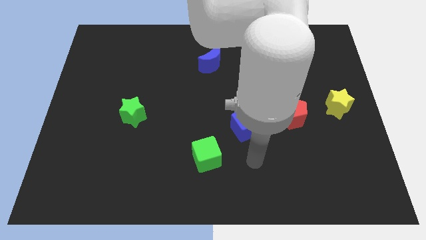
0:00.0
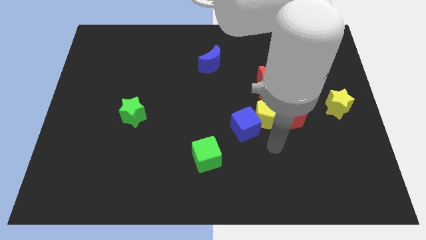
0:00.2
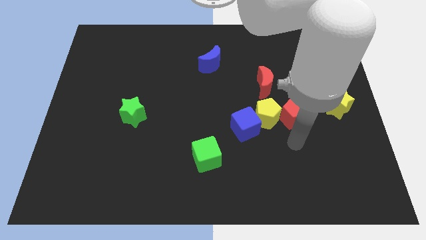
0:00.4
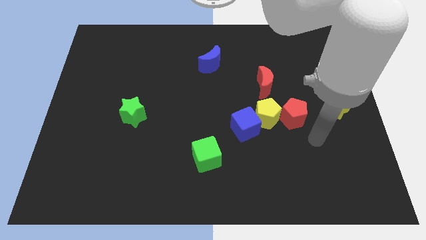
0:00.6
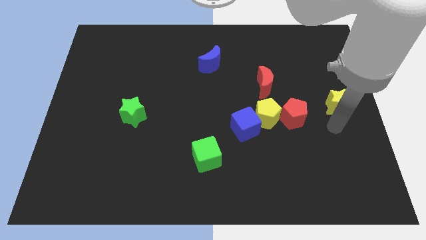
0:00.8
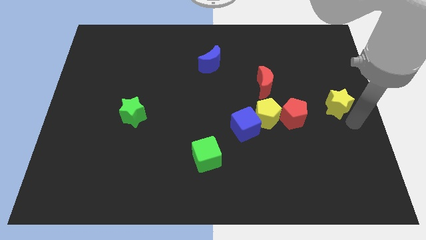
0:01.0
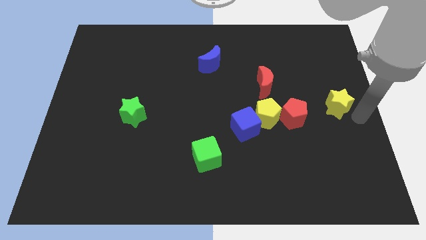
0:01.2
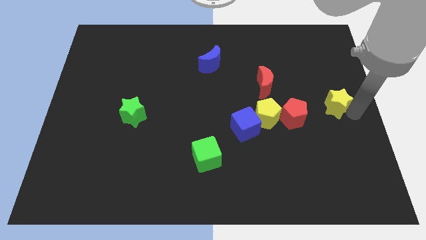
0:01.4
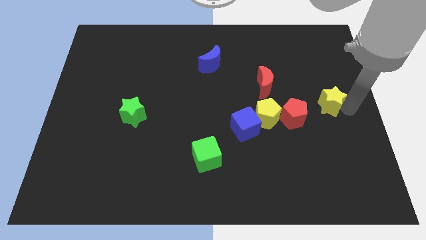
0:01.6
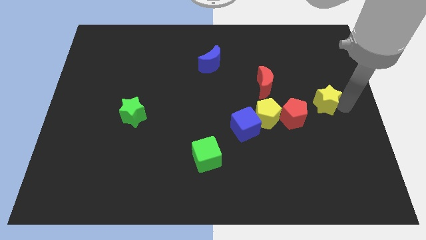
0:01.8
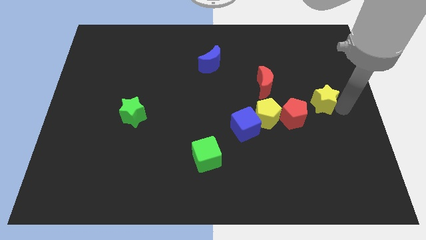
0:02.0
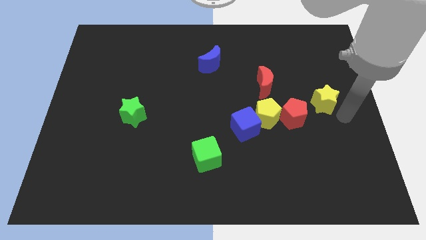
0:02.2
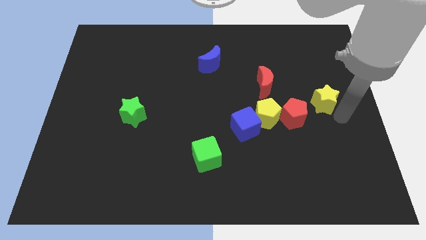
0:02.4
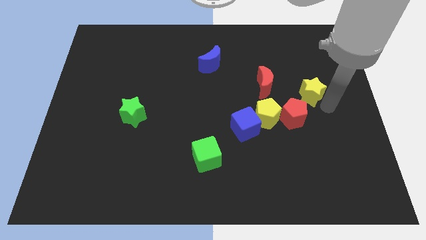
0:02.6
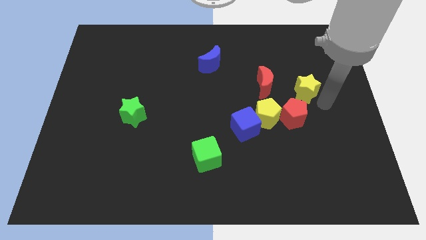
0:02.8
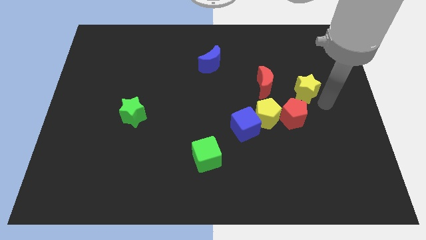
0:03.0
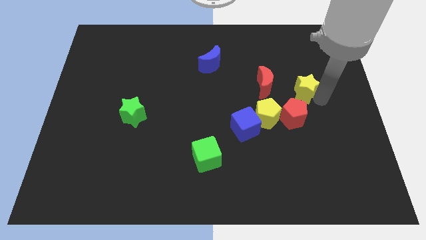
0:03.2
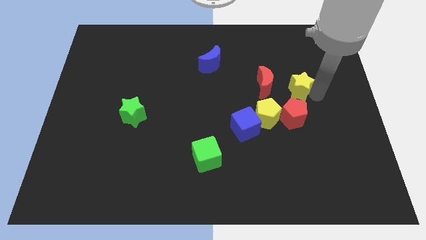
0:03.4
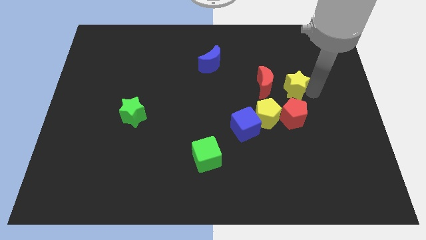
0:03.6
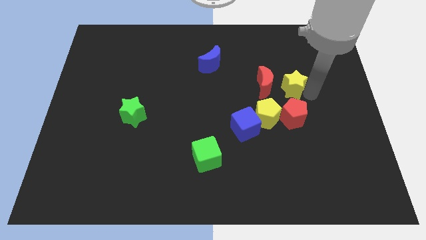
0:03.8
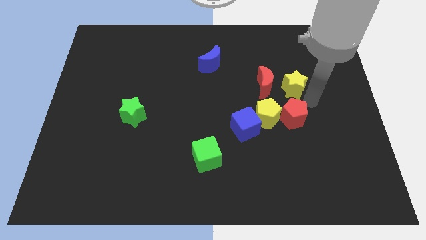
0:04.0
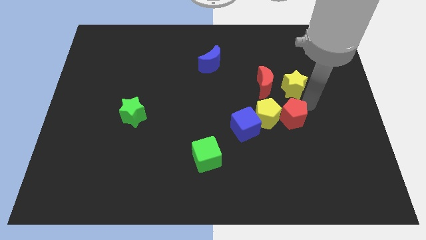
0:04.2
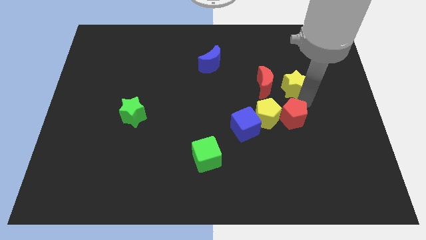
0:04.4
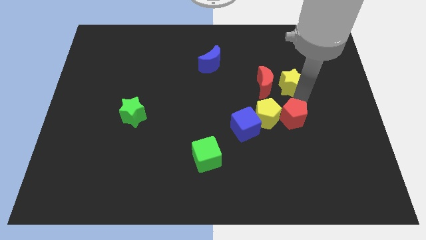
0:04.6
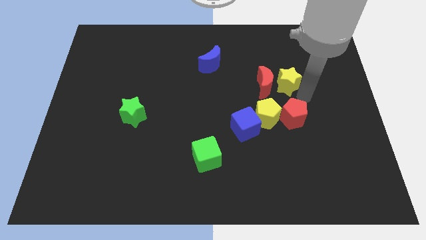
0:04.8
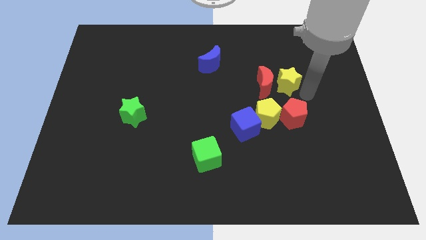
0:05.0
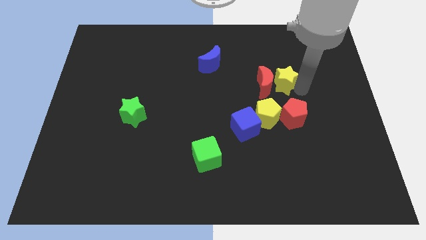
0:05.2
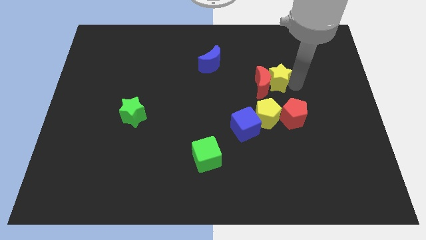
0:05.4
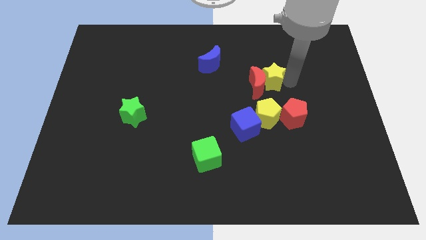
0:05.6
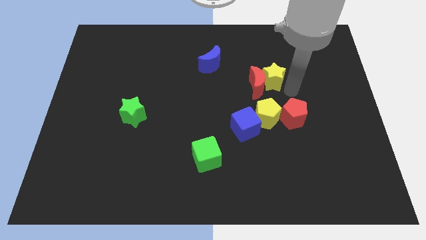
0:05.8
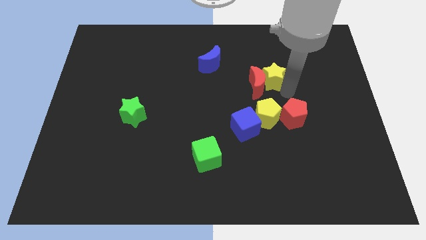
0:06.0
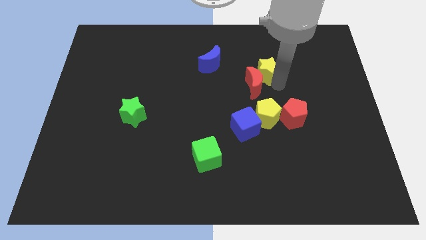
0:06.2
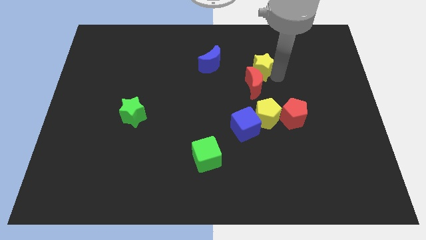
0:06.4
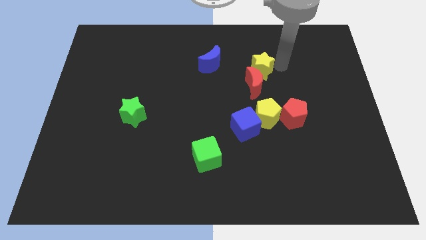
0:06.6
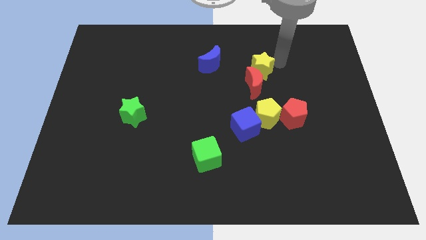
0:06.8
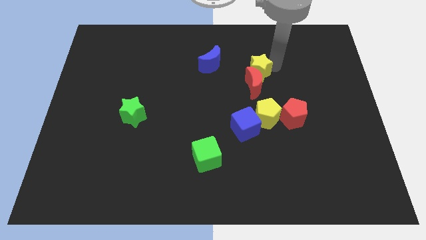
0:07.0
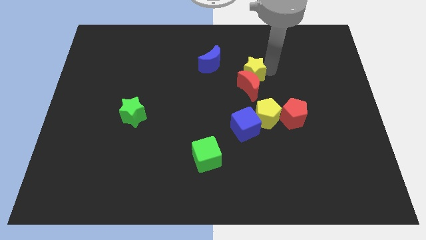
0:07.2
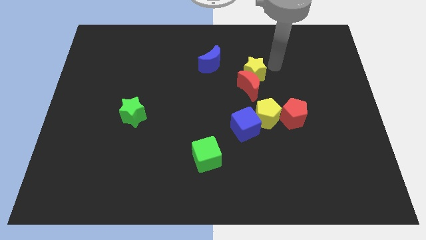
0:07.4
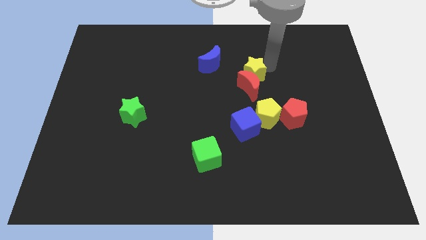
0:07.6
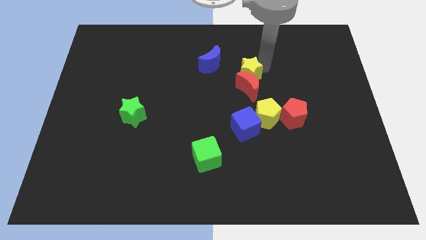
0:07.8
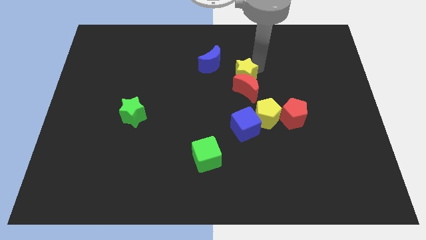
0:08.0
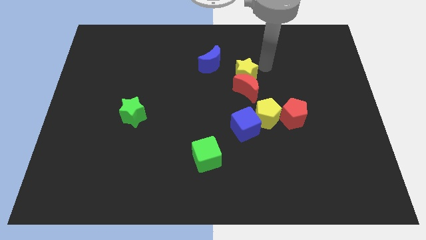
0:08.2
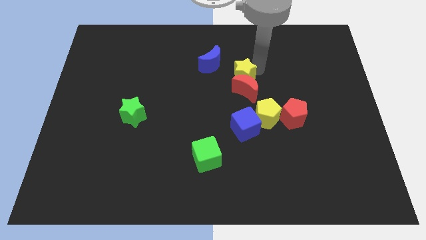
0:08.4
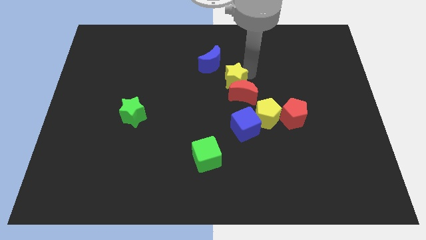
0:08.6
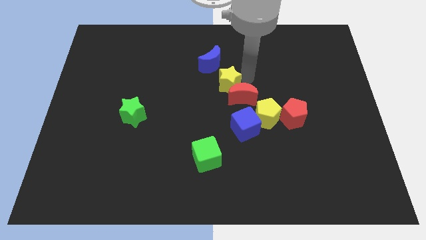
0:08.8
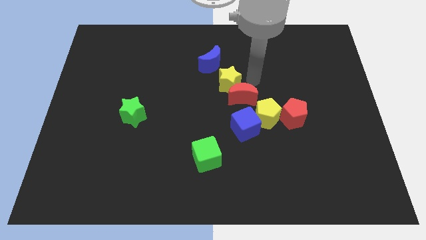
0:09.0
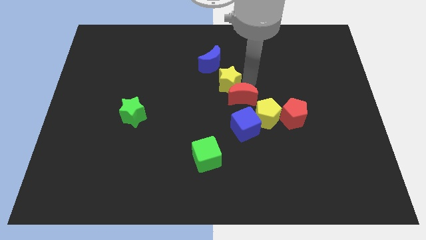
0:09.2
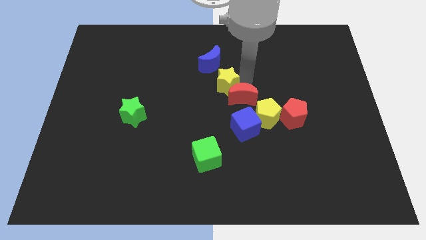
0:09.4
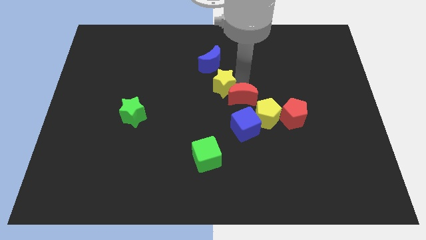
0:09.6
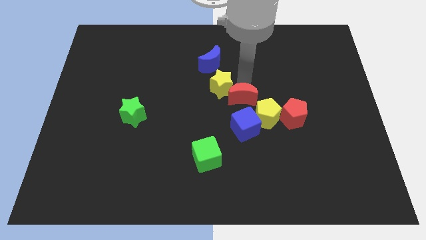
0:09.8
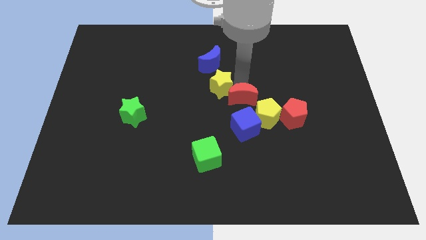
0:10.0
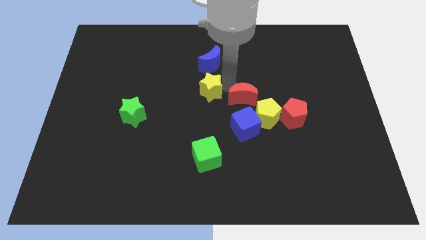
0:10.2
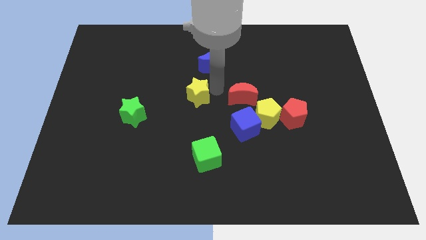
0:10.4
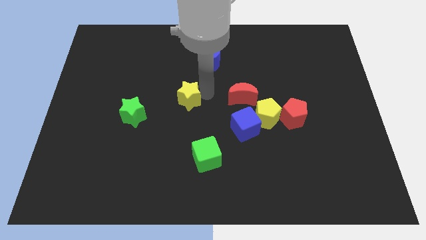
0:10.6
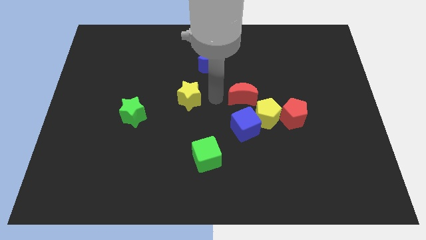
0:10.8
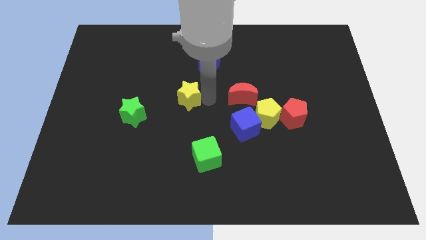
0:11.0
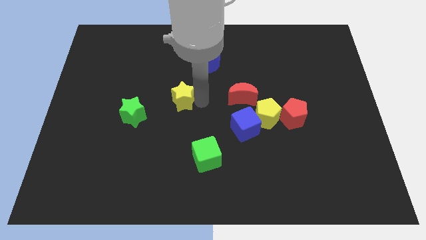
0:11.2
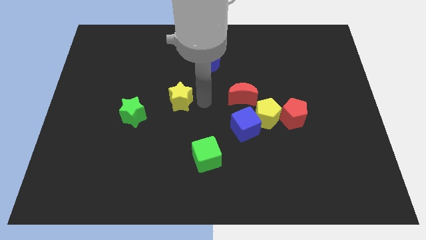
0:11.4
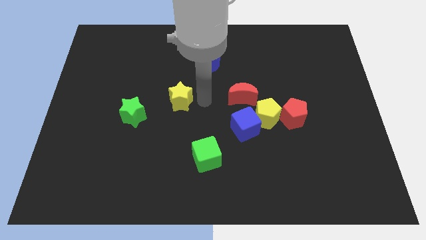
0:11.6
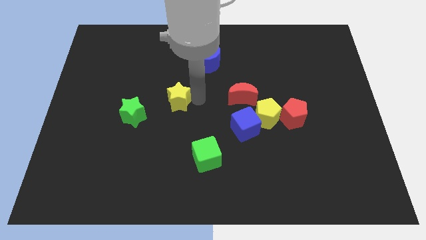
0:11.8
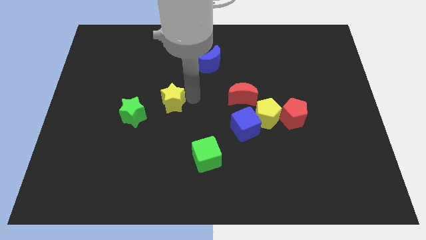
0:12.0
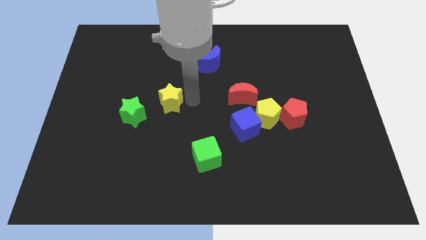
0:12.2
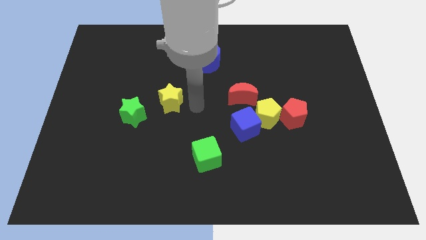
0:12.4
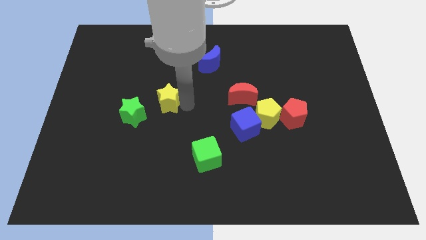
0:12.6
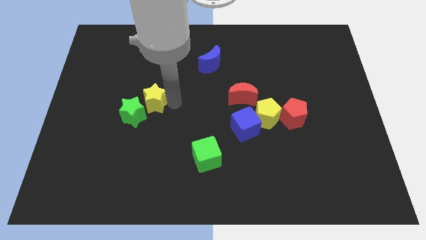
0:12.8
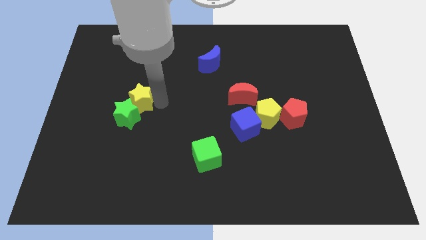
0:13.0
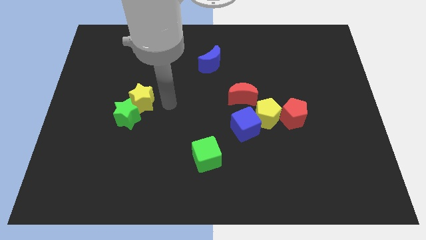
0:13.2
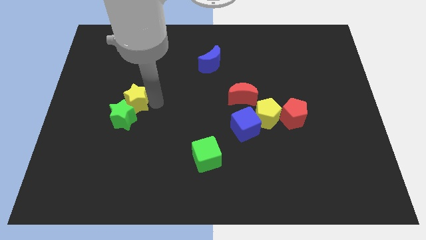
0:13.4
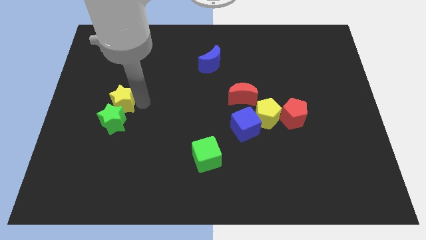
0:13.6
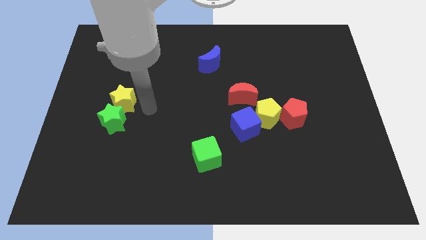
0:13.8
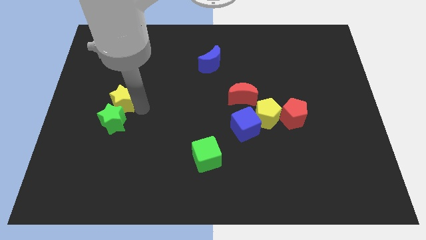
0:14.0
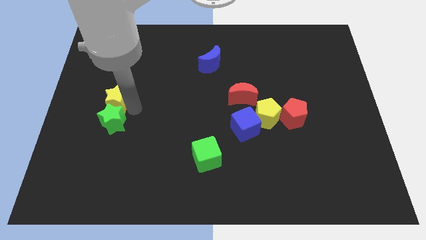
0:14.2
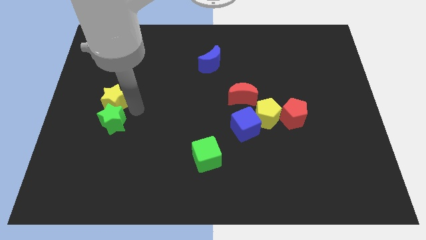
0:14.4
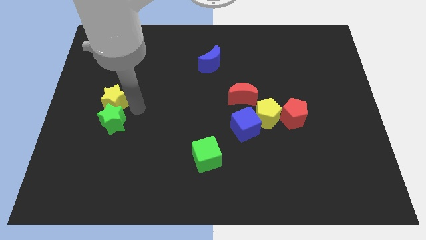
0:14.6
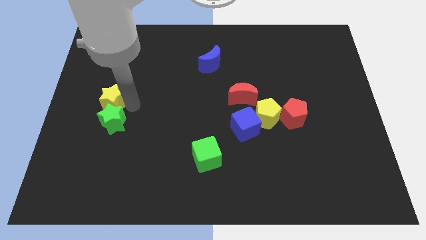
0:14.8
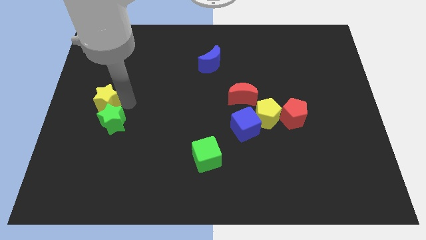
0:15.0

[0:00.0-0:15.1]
slide the yellow star to the left side
